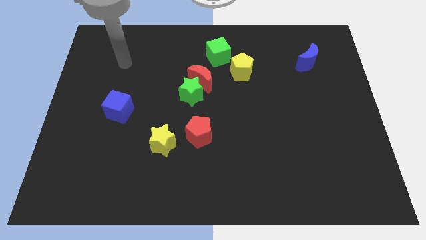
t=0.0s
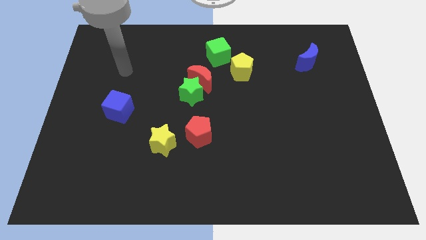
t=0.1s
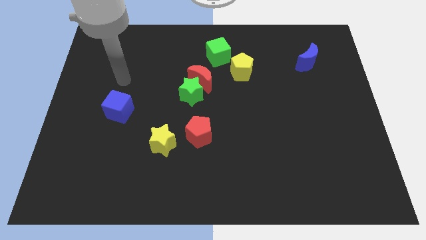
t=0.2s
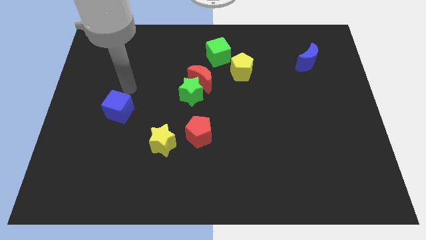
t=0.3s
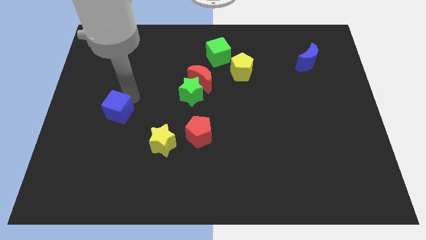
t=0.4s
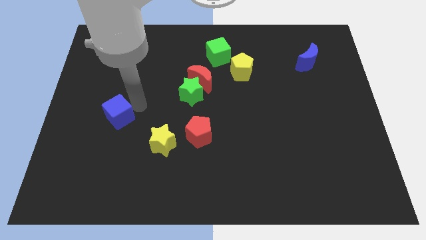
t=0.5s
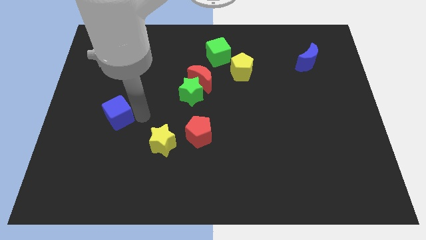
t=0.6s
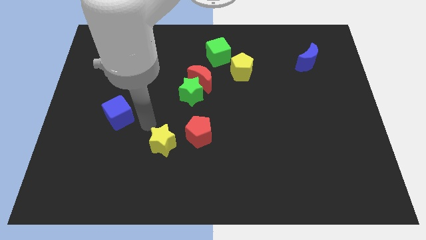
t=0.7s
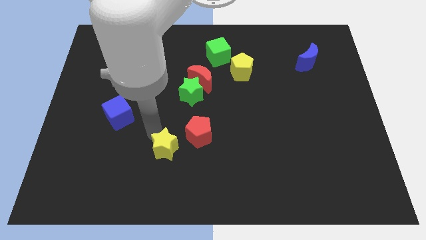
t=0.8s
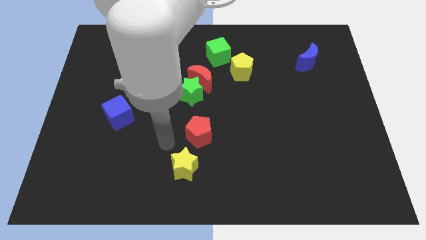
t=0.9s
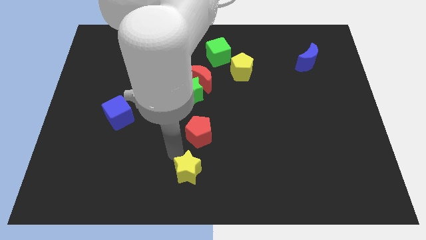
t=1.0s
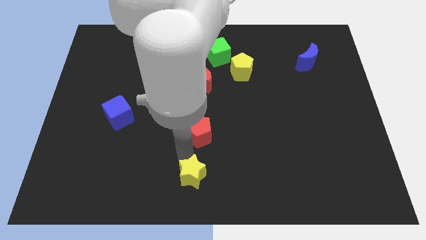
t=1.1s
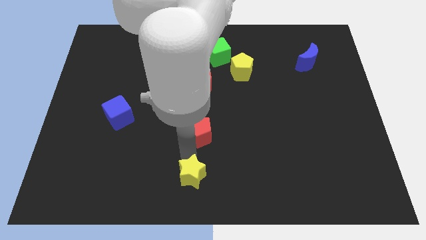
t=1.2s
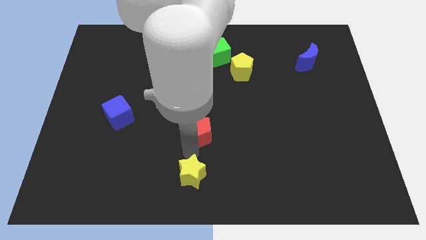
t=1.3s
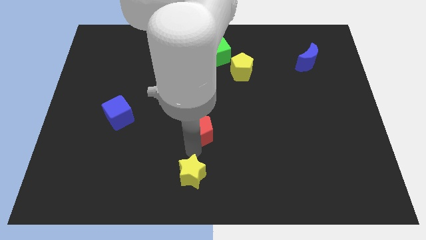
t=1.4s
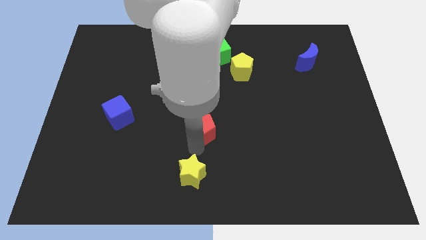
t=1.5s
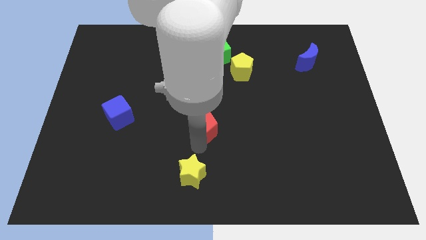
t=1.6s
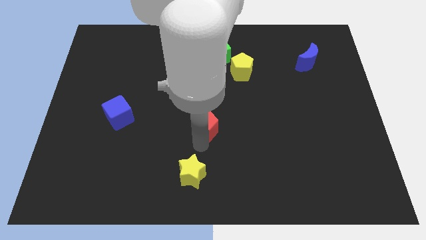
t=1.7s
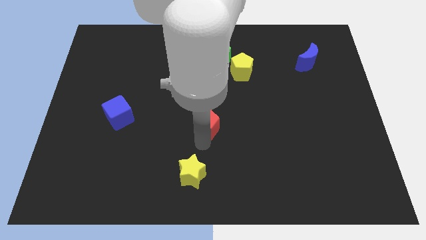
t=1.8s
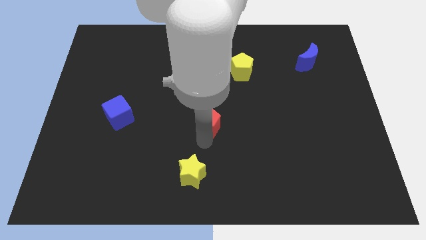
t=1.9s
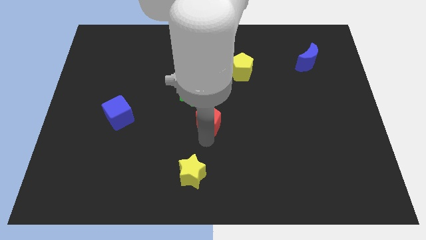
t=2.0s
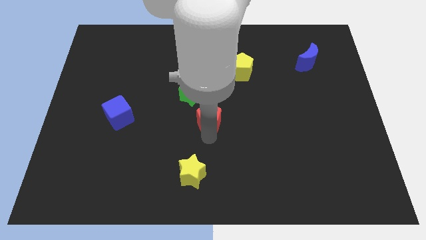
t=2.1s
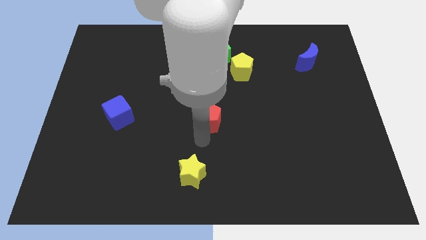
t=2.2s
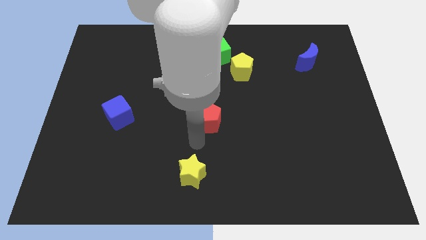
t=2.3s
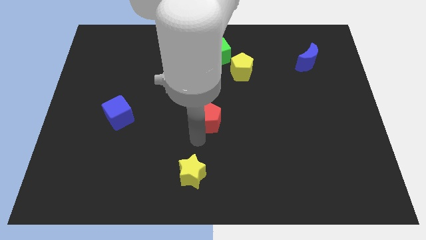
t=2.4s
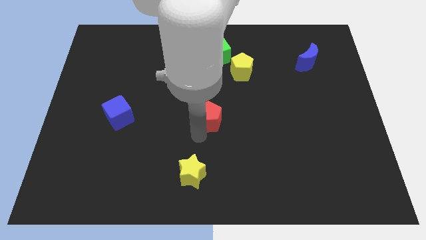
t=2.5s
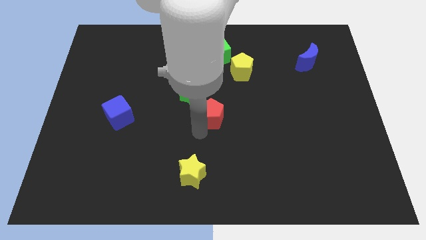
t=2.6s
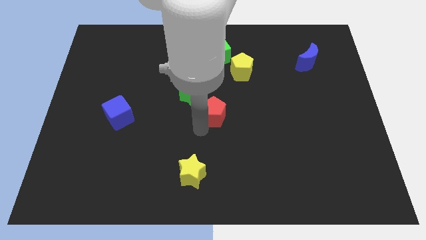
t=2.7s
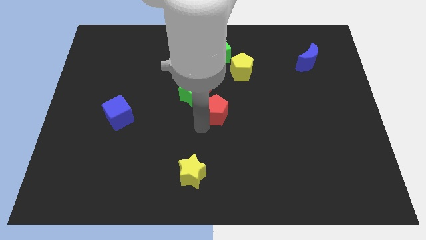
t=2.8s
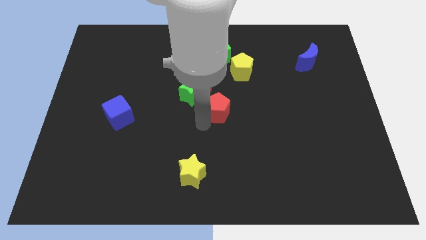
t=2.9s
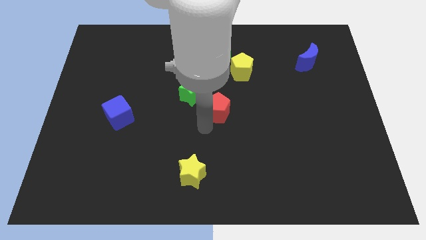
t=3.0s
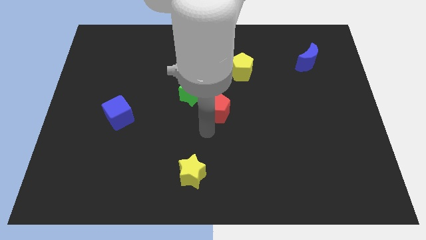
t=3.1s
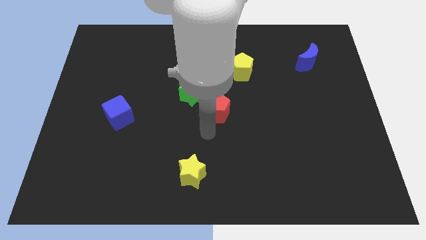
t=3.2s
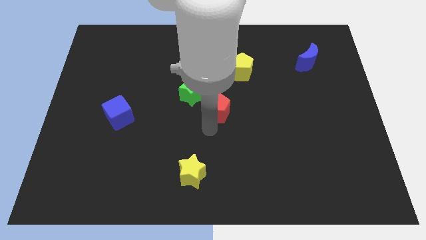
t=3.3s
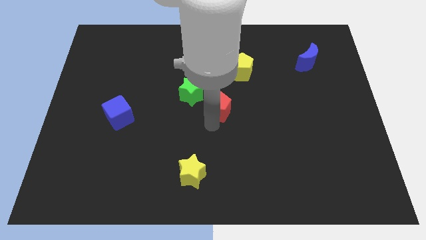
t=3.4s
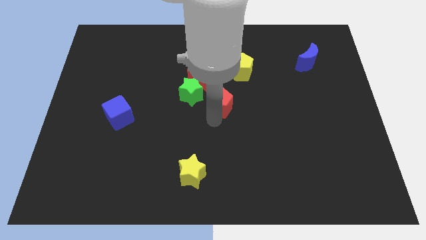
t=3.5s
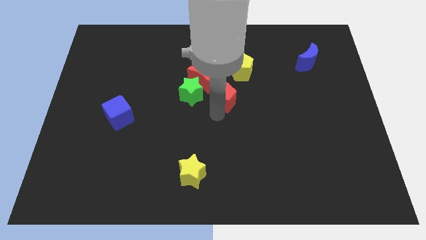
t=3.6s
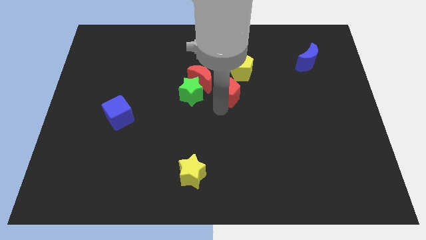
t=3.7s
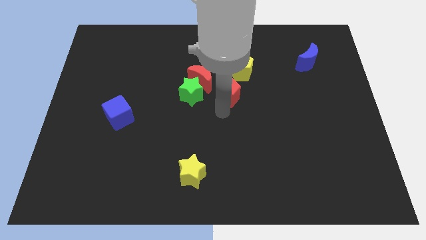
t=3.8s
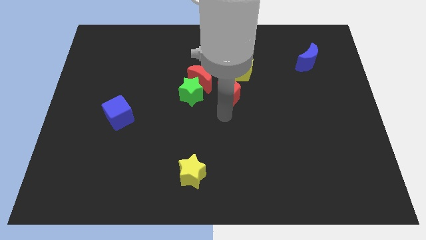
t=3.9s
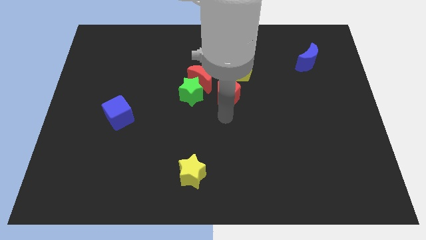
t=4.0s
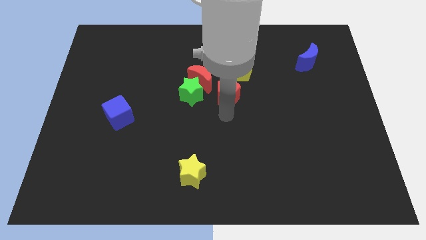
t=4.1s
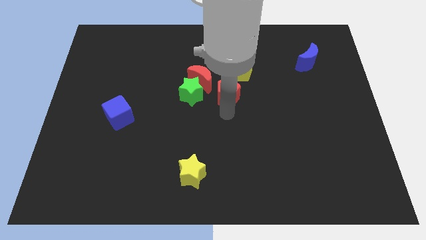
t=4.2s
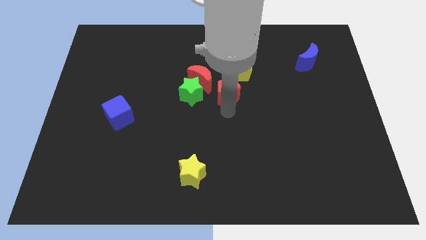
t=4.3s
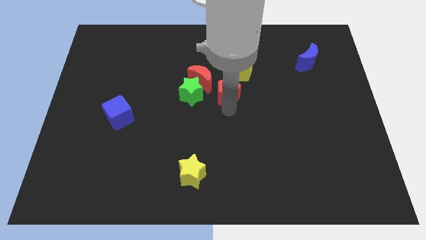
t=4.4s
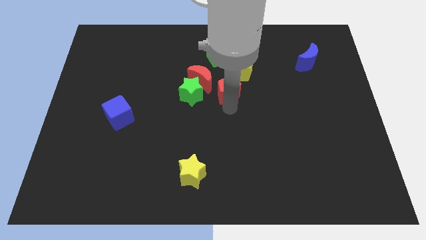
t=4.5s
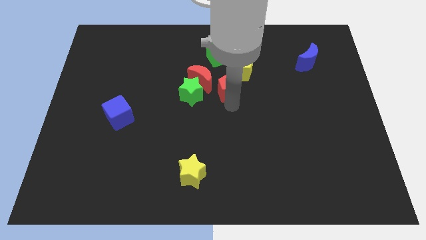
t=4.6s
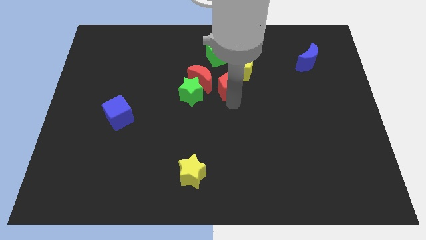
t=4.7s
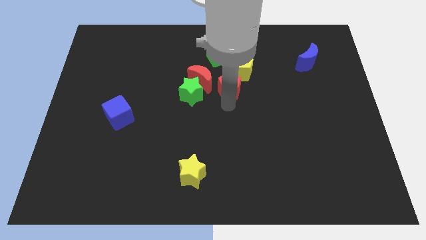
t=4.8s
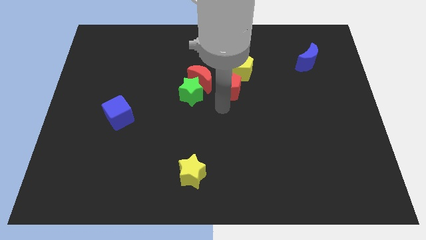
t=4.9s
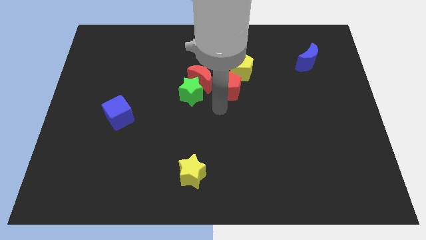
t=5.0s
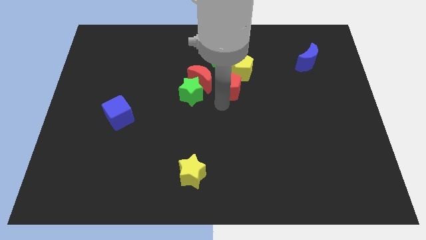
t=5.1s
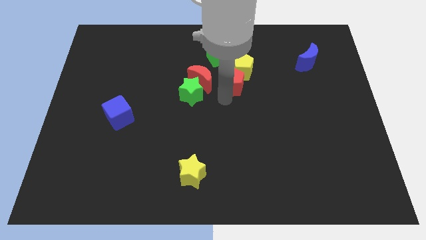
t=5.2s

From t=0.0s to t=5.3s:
push the red pentagon towards the yellow pentagon

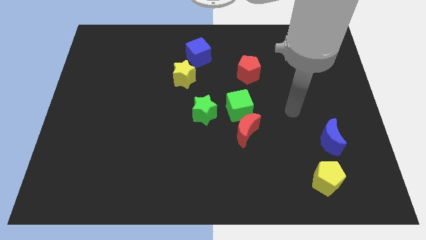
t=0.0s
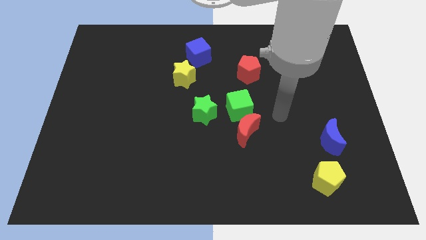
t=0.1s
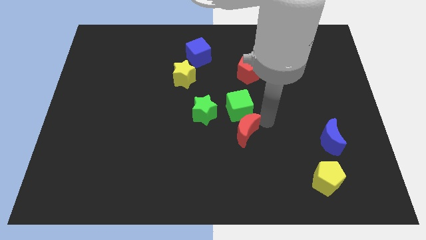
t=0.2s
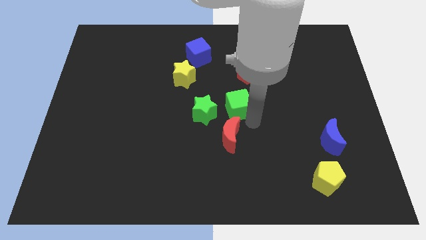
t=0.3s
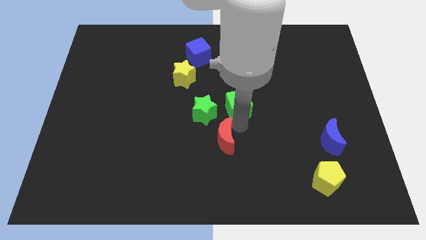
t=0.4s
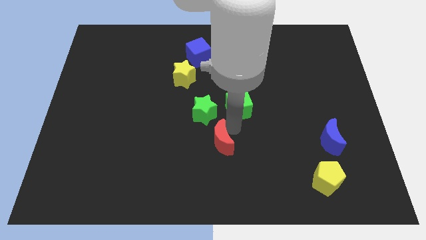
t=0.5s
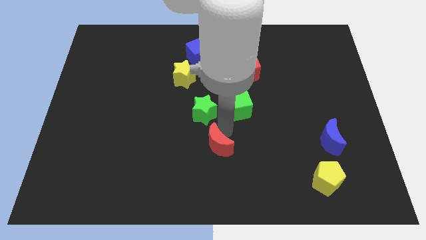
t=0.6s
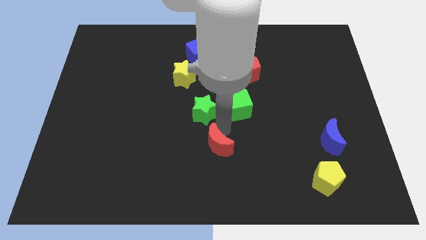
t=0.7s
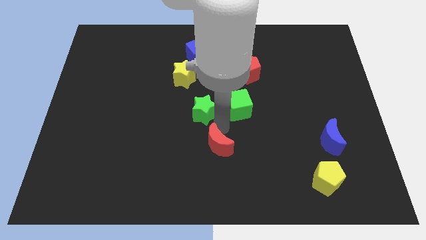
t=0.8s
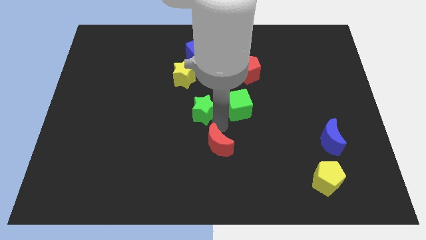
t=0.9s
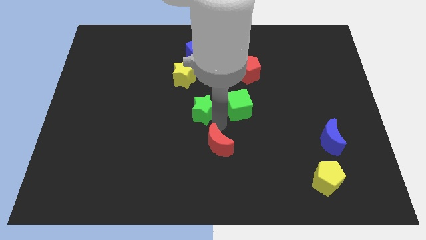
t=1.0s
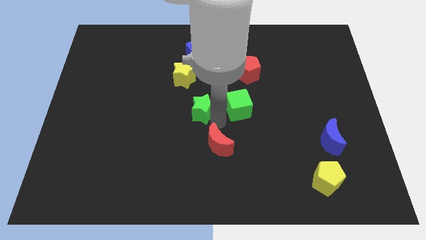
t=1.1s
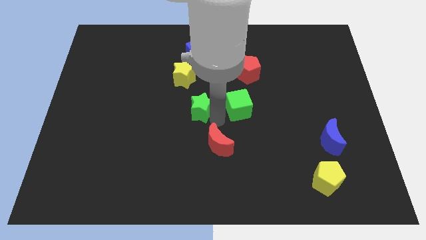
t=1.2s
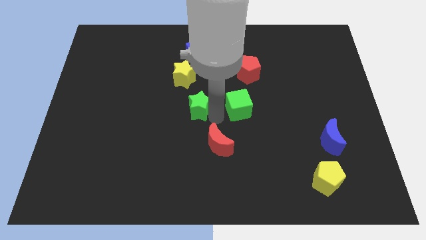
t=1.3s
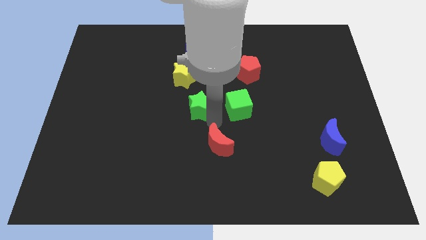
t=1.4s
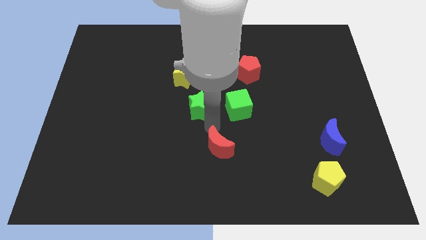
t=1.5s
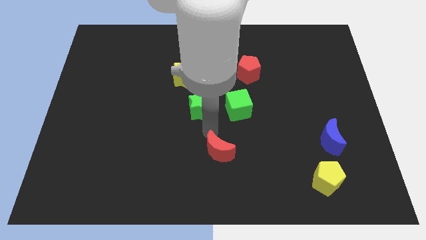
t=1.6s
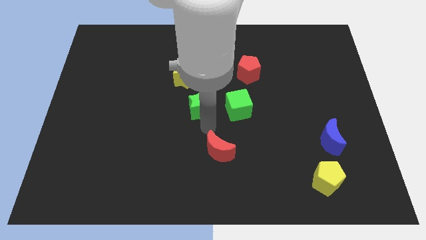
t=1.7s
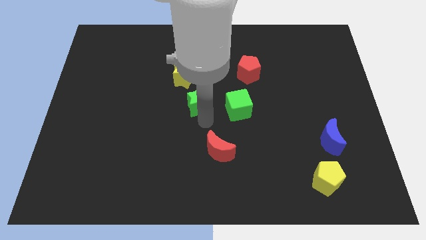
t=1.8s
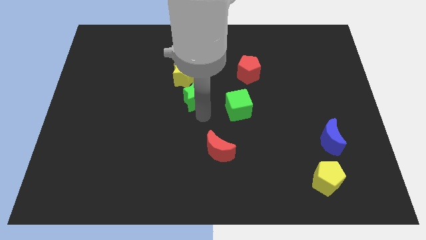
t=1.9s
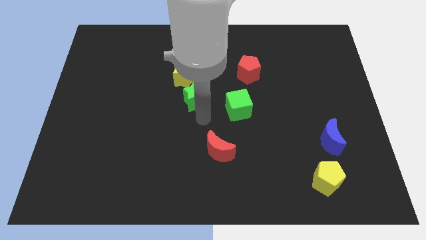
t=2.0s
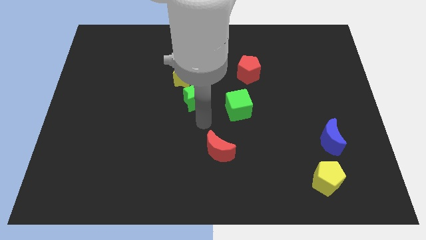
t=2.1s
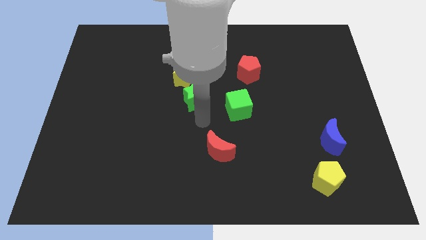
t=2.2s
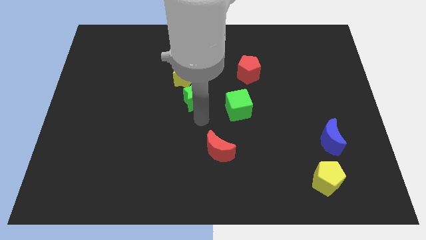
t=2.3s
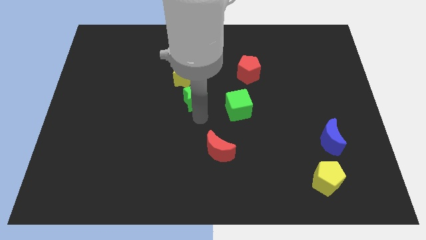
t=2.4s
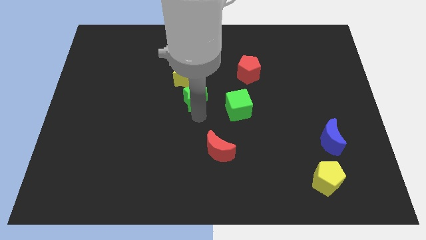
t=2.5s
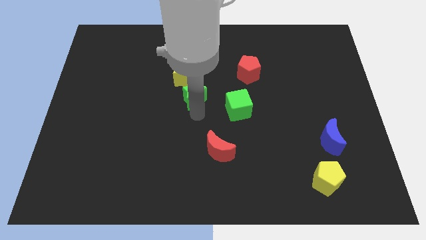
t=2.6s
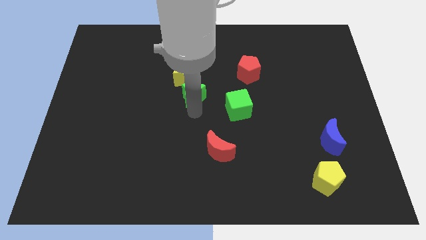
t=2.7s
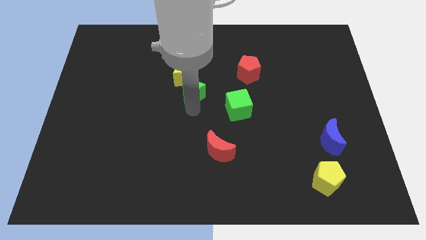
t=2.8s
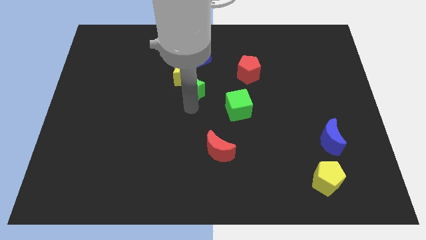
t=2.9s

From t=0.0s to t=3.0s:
push the green star close to the yellow star
